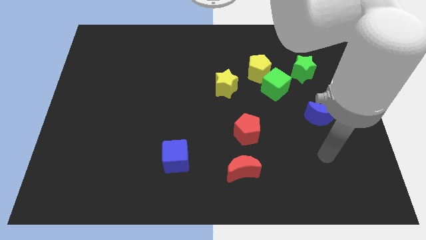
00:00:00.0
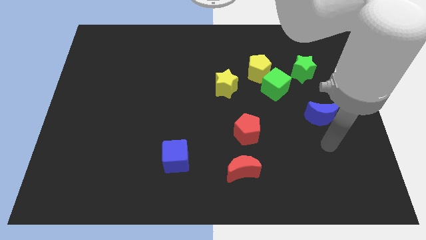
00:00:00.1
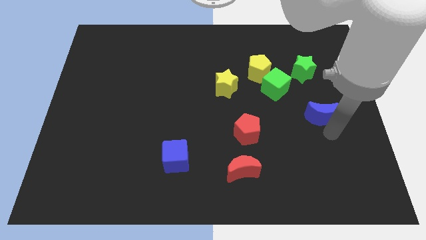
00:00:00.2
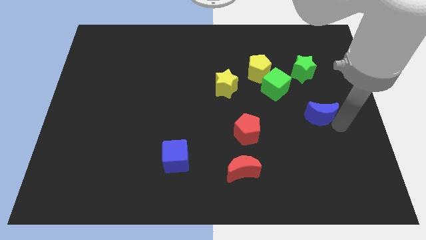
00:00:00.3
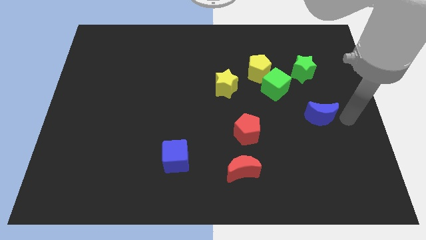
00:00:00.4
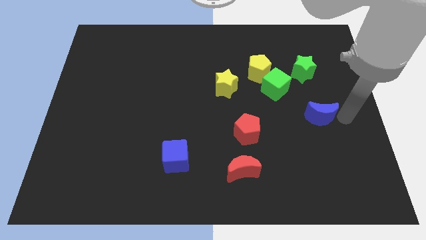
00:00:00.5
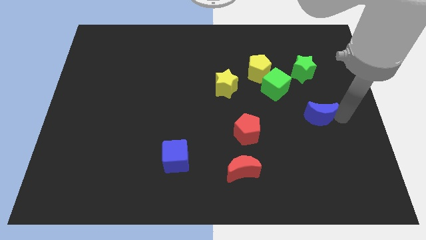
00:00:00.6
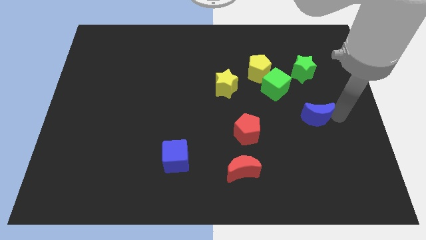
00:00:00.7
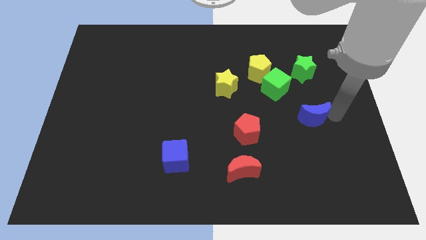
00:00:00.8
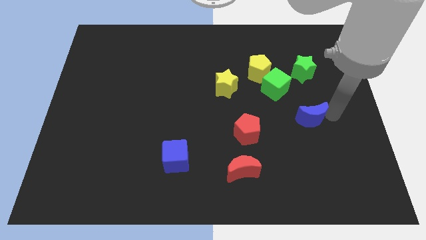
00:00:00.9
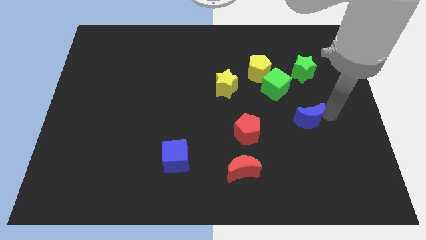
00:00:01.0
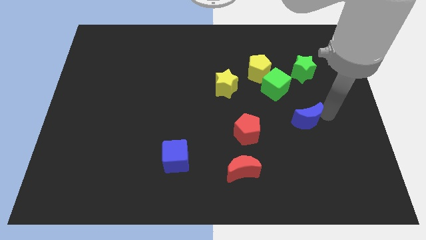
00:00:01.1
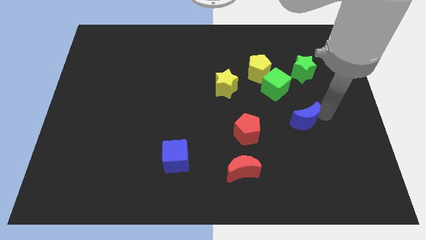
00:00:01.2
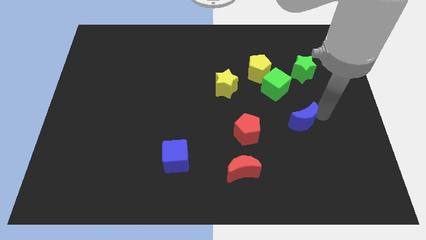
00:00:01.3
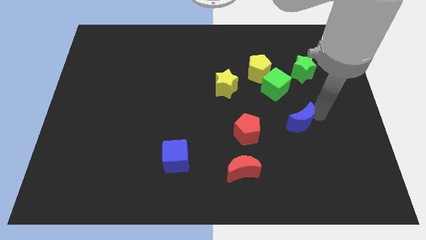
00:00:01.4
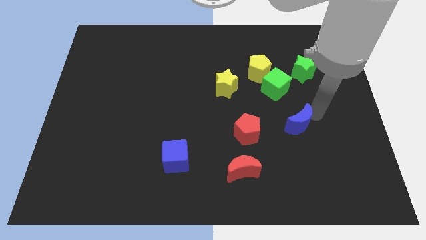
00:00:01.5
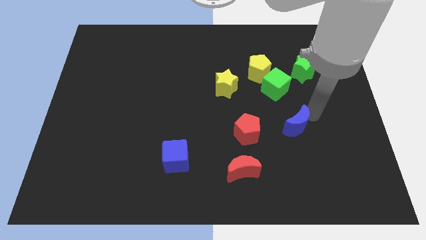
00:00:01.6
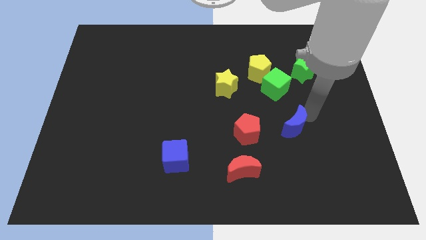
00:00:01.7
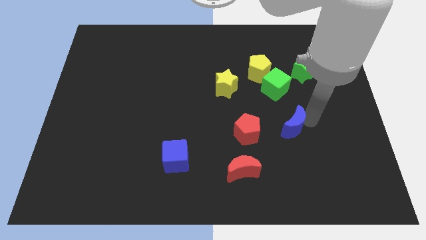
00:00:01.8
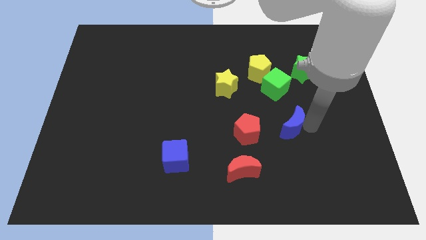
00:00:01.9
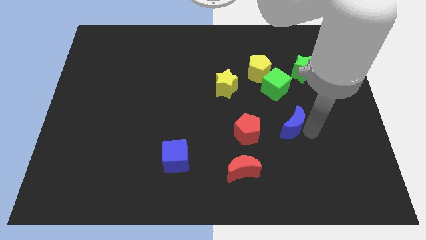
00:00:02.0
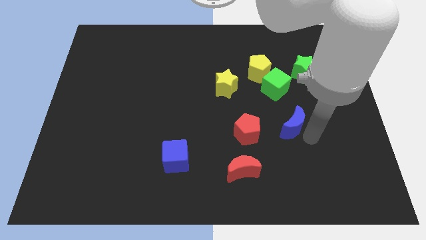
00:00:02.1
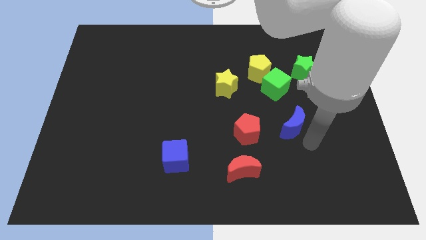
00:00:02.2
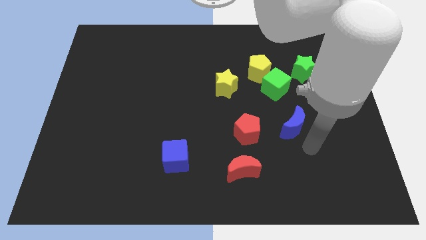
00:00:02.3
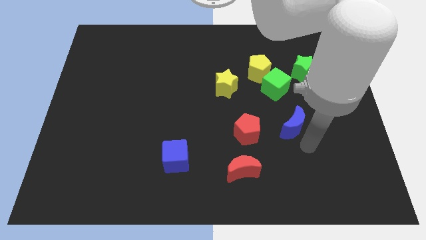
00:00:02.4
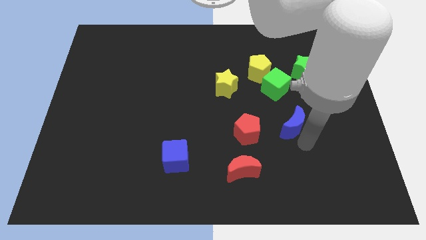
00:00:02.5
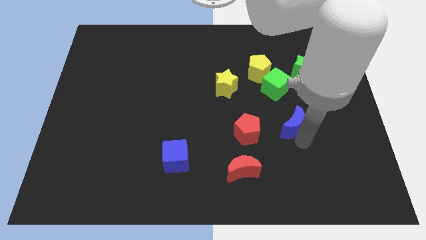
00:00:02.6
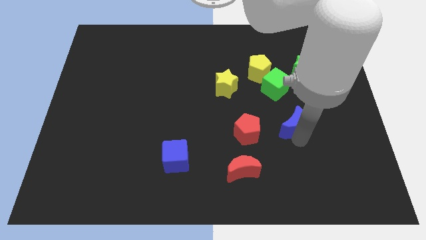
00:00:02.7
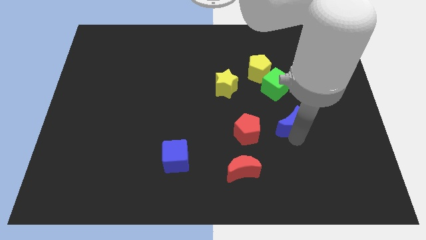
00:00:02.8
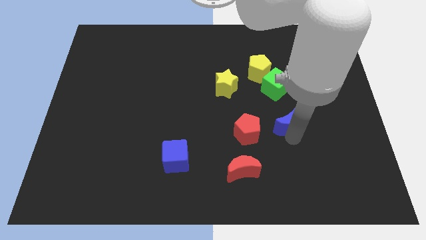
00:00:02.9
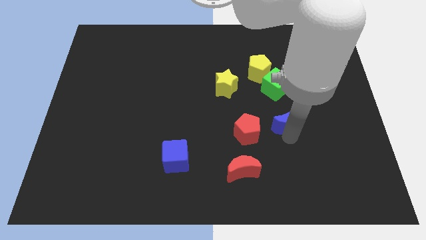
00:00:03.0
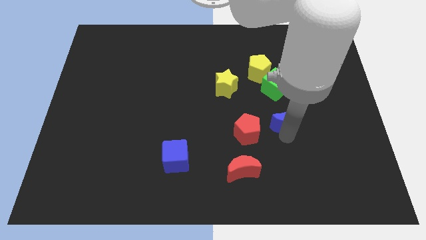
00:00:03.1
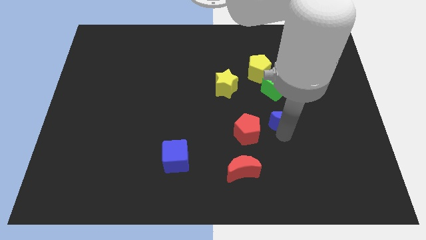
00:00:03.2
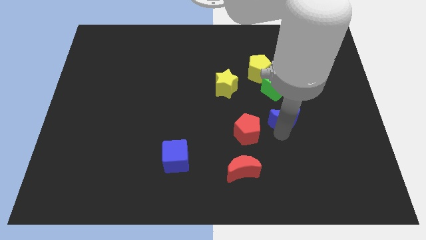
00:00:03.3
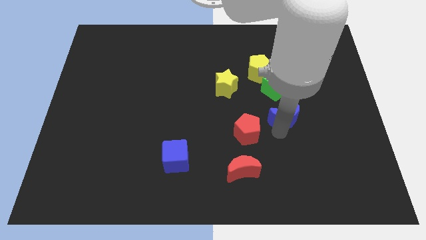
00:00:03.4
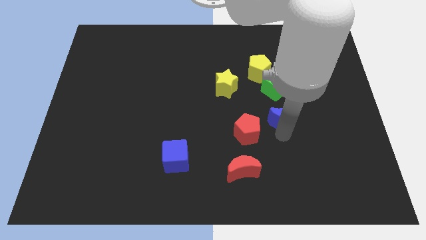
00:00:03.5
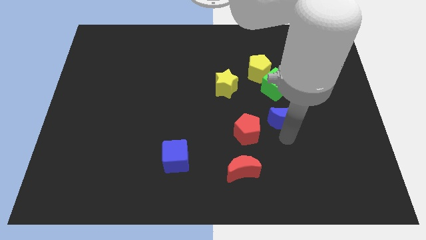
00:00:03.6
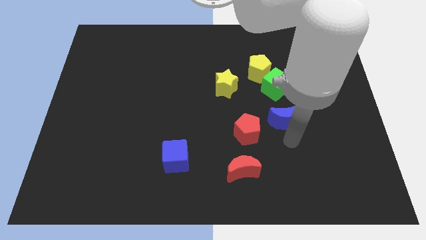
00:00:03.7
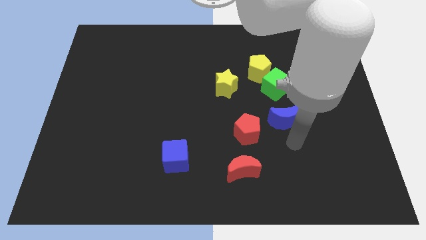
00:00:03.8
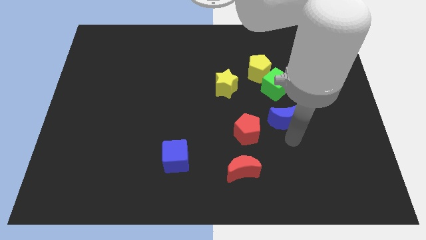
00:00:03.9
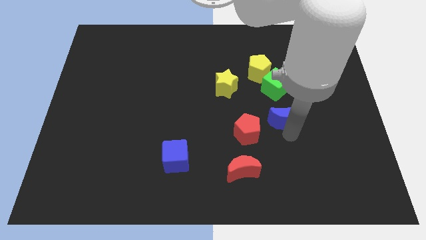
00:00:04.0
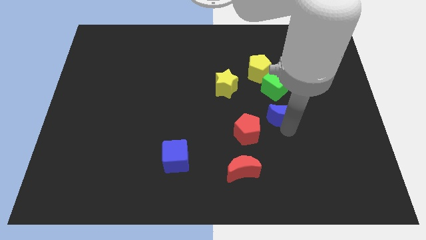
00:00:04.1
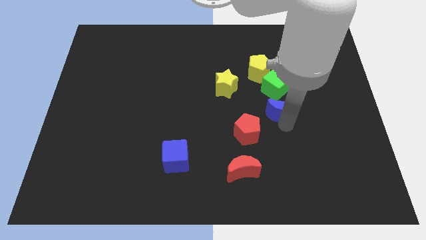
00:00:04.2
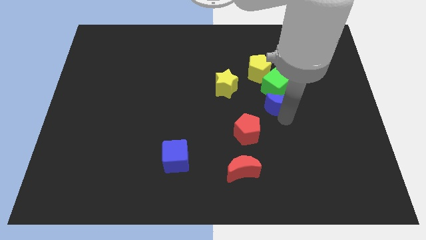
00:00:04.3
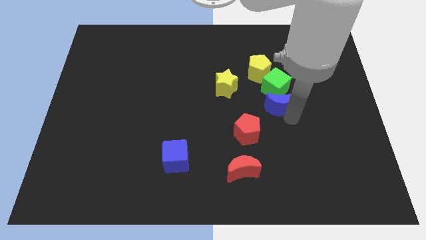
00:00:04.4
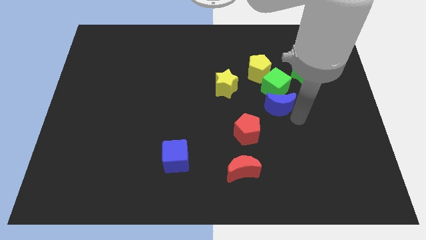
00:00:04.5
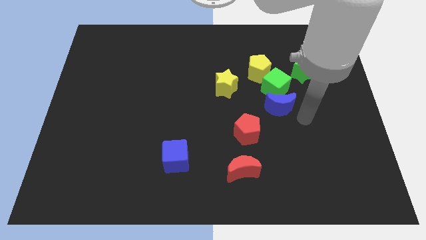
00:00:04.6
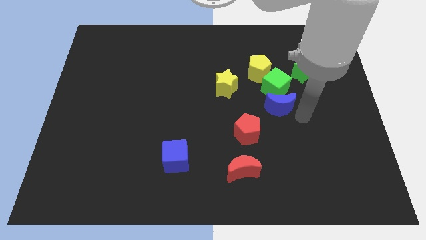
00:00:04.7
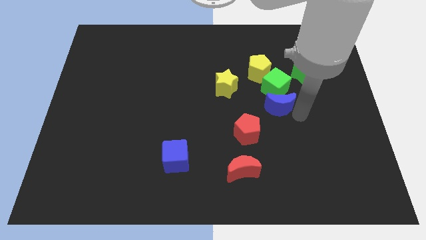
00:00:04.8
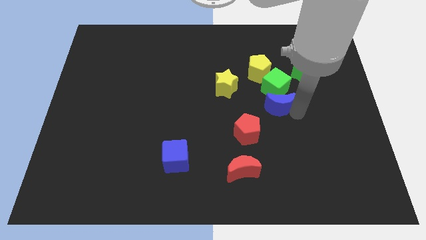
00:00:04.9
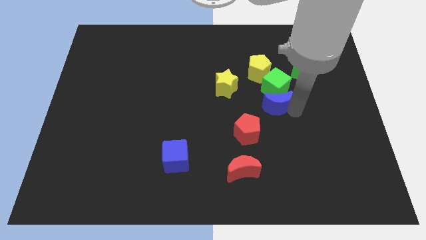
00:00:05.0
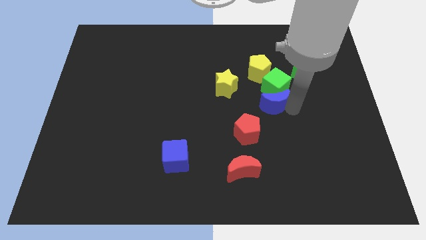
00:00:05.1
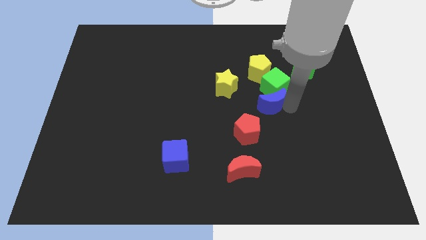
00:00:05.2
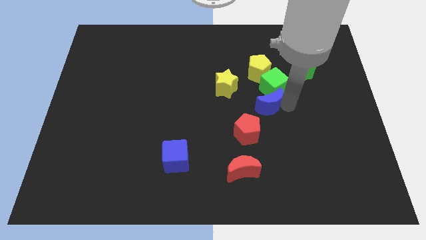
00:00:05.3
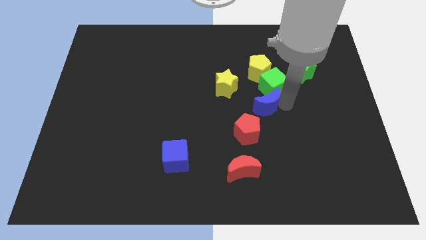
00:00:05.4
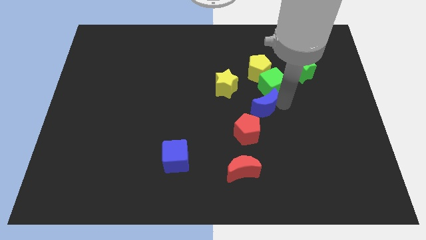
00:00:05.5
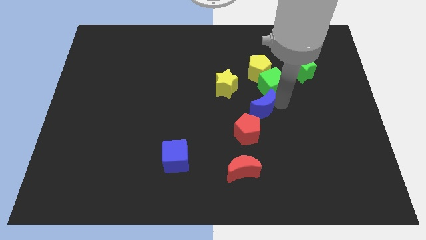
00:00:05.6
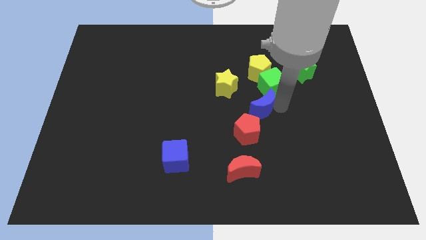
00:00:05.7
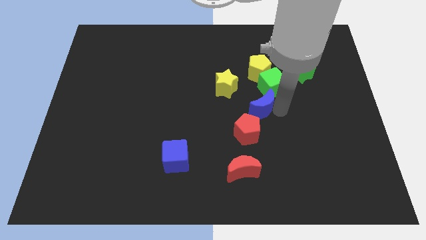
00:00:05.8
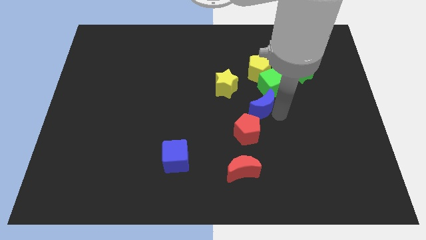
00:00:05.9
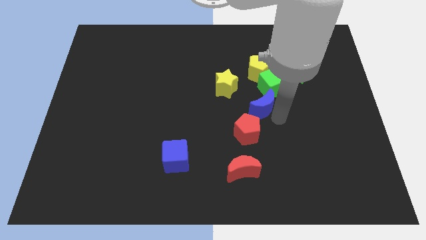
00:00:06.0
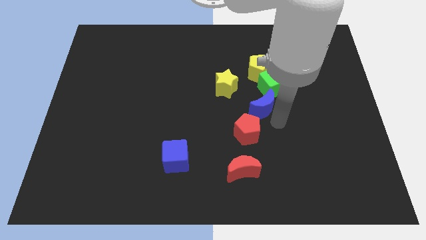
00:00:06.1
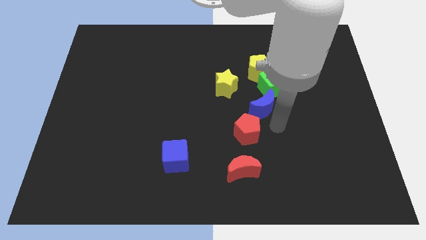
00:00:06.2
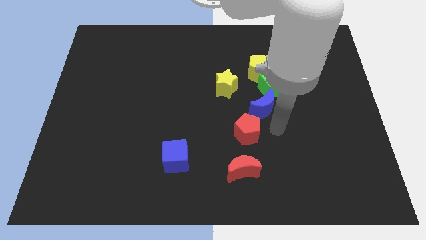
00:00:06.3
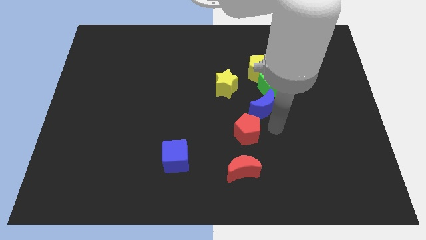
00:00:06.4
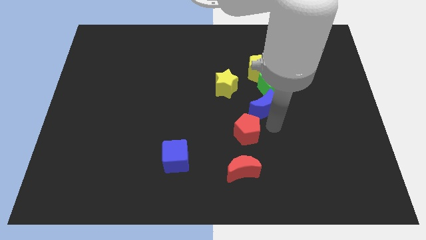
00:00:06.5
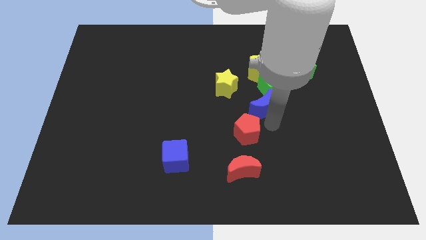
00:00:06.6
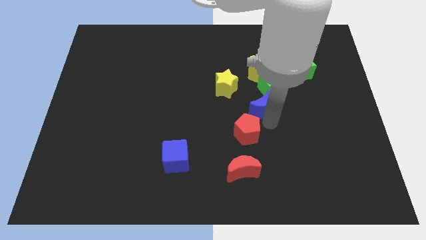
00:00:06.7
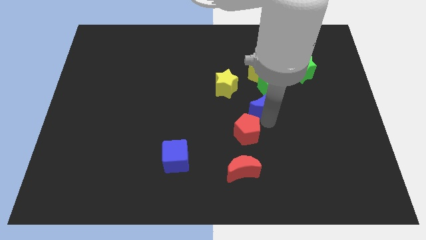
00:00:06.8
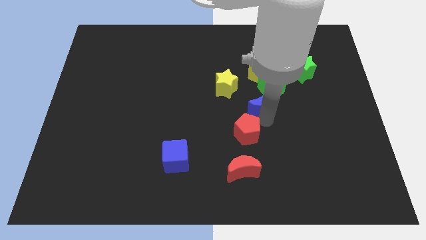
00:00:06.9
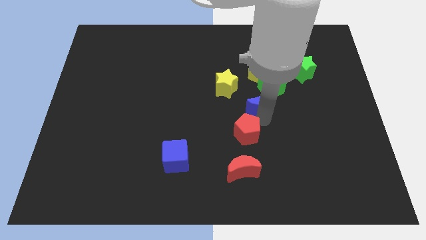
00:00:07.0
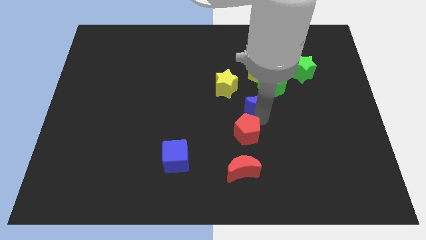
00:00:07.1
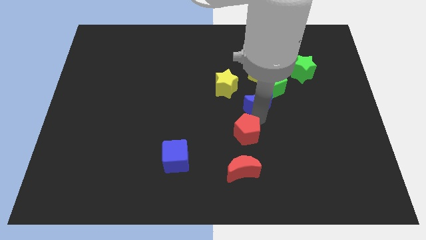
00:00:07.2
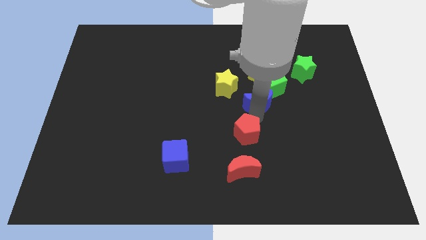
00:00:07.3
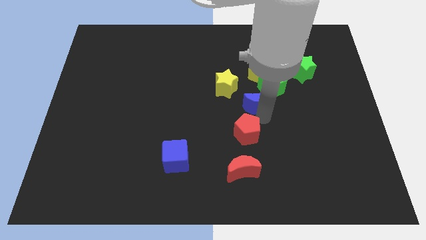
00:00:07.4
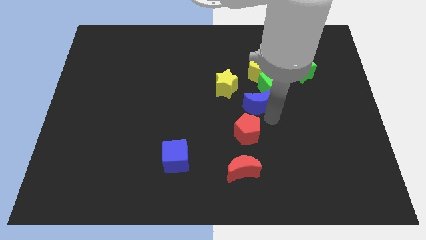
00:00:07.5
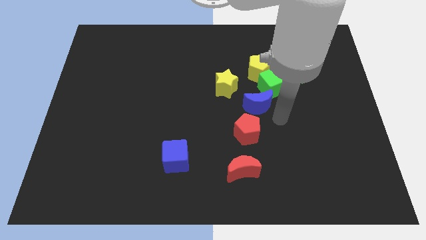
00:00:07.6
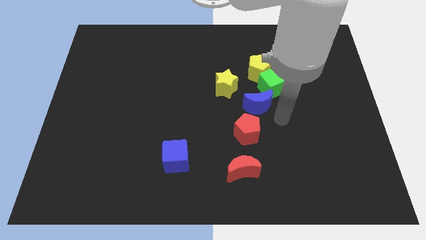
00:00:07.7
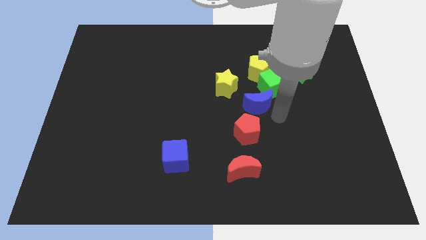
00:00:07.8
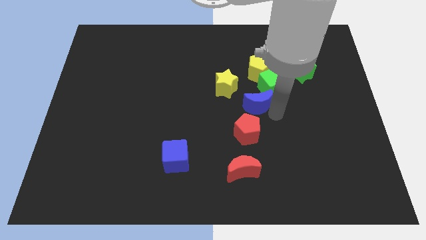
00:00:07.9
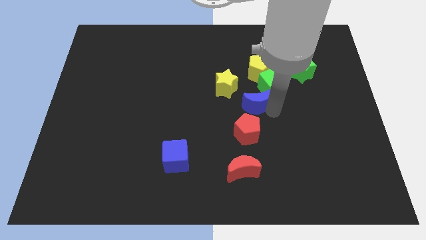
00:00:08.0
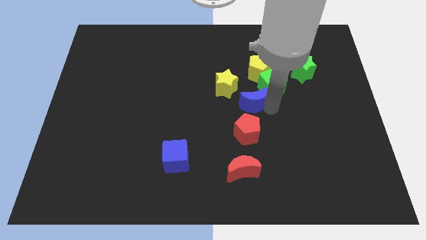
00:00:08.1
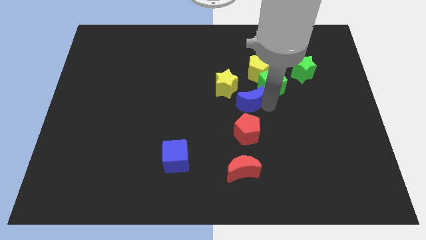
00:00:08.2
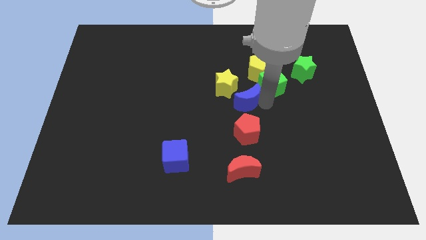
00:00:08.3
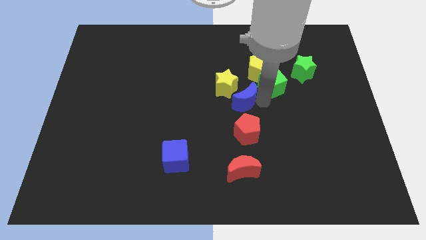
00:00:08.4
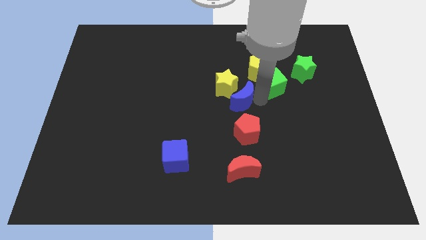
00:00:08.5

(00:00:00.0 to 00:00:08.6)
slide the blue moon towards the yellow star
